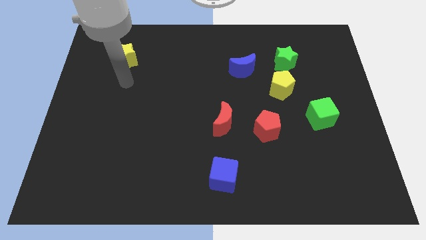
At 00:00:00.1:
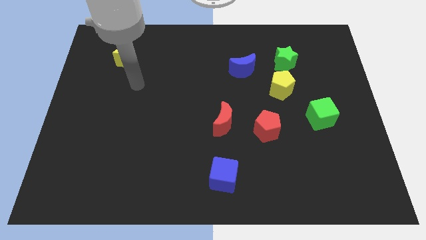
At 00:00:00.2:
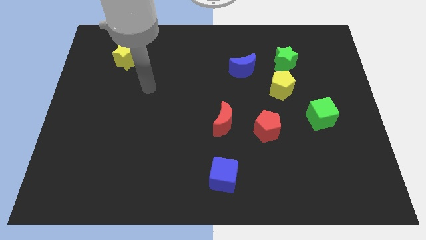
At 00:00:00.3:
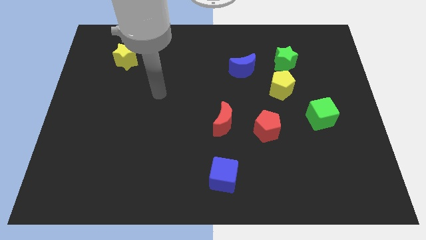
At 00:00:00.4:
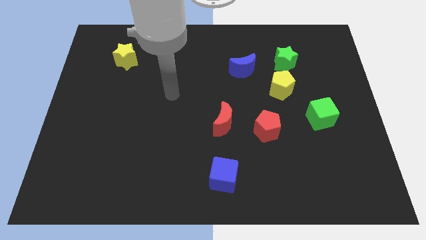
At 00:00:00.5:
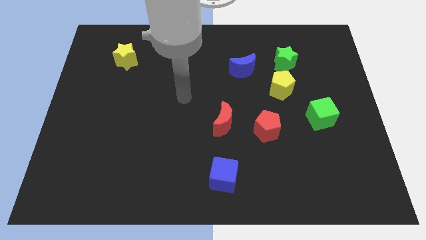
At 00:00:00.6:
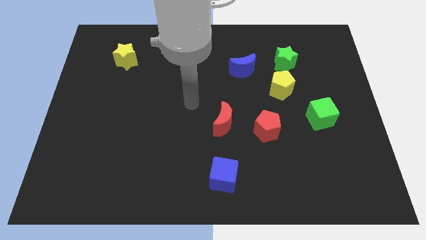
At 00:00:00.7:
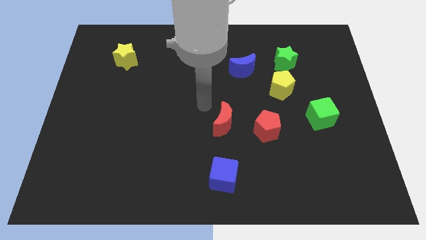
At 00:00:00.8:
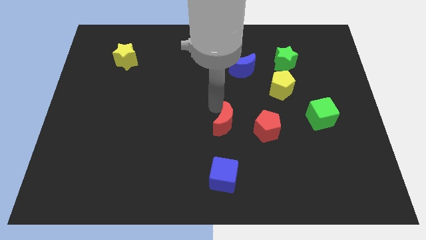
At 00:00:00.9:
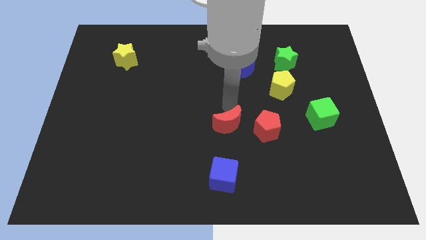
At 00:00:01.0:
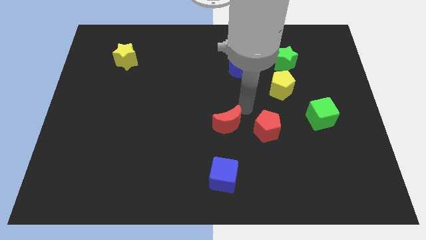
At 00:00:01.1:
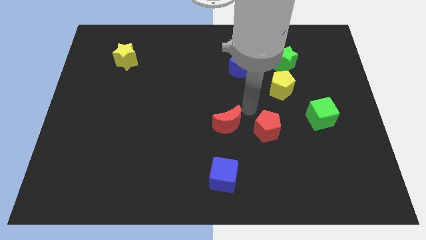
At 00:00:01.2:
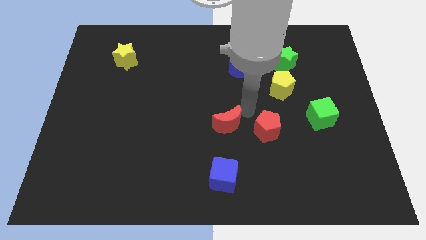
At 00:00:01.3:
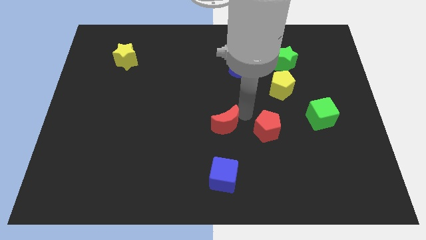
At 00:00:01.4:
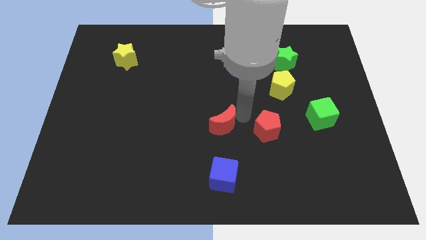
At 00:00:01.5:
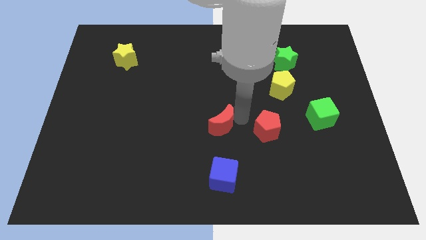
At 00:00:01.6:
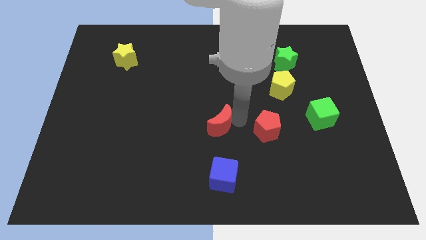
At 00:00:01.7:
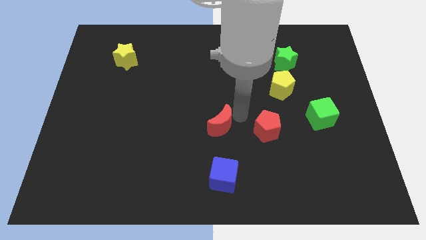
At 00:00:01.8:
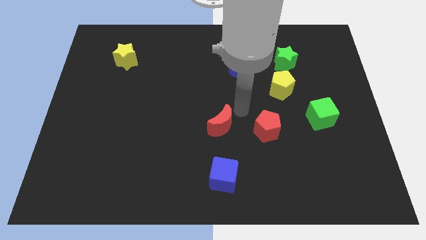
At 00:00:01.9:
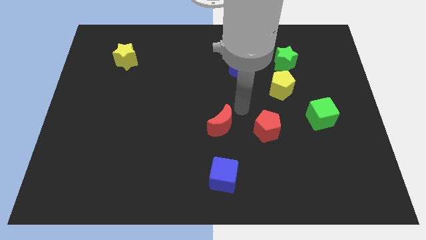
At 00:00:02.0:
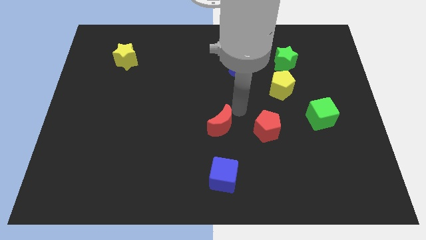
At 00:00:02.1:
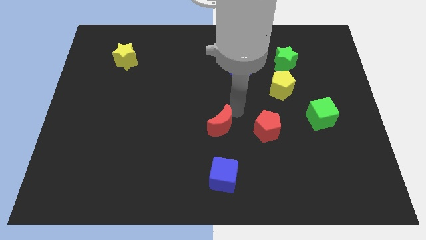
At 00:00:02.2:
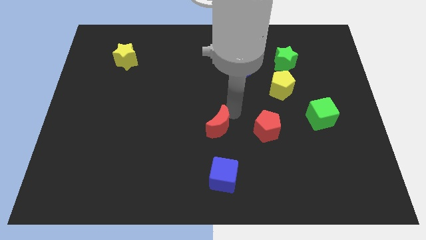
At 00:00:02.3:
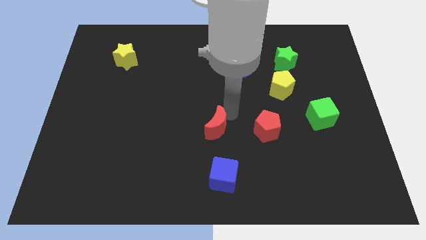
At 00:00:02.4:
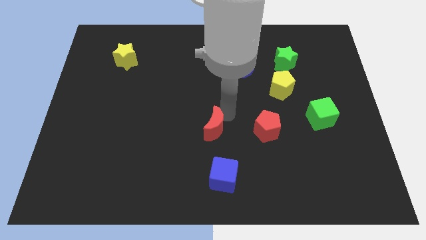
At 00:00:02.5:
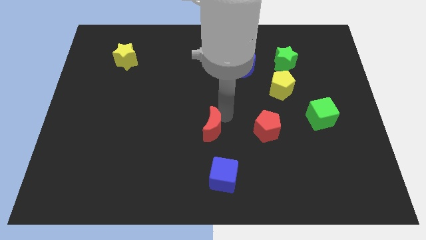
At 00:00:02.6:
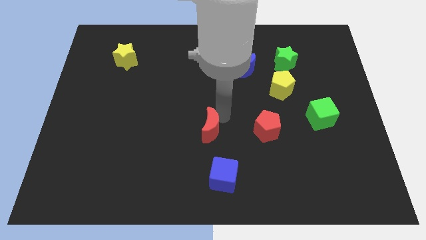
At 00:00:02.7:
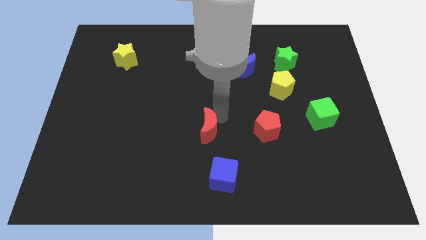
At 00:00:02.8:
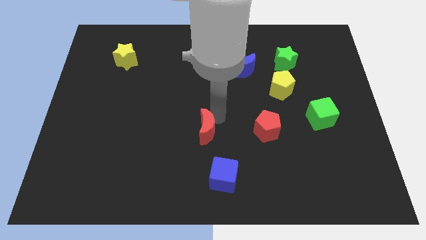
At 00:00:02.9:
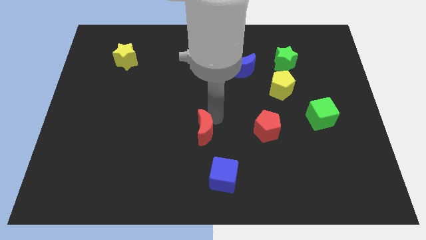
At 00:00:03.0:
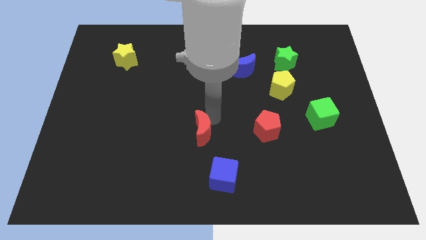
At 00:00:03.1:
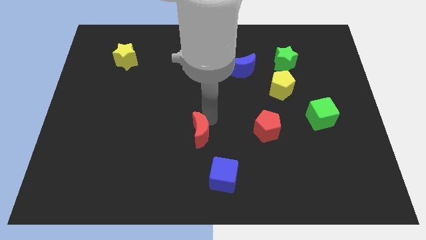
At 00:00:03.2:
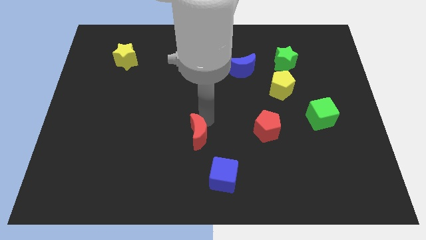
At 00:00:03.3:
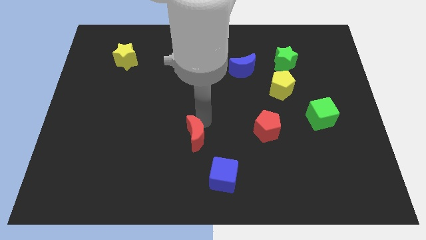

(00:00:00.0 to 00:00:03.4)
slightly push the red moon down and to the left

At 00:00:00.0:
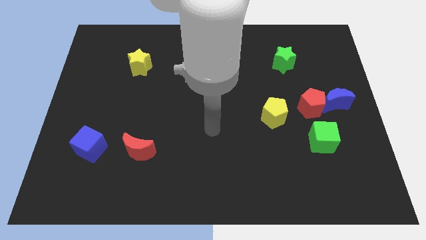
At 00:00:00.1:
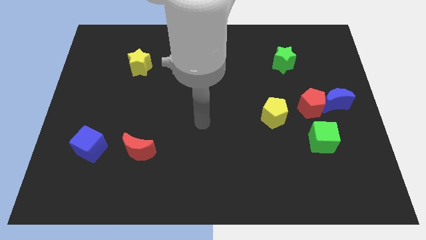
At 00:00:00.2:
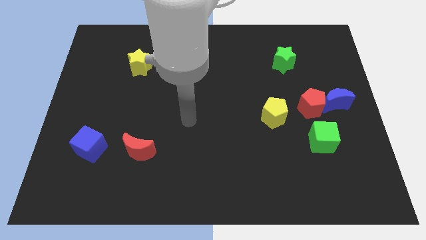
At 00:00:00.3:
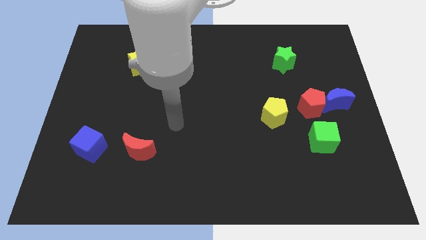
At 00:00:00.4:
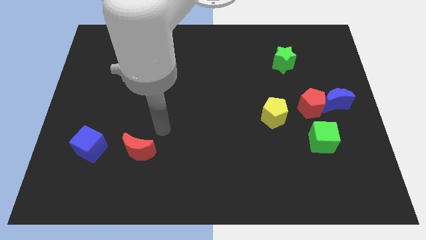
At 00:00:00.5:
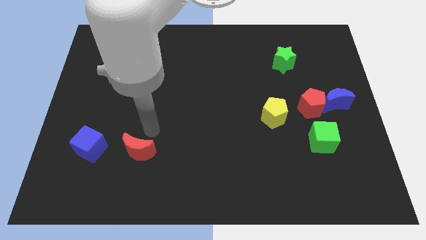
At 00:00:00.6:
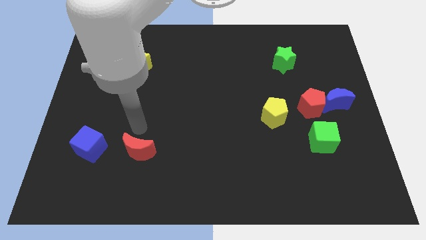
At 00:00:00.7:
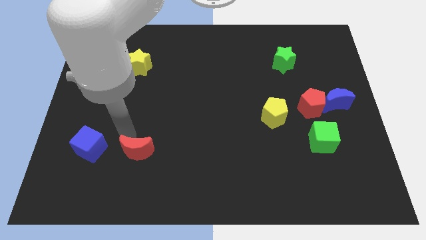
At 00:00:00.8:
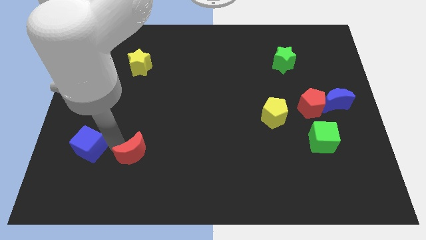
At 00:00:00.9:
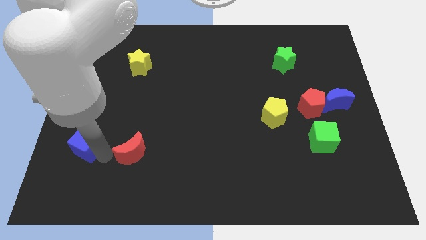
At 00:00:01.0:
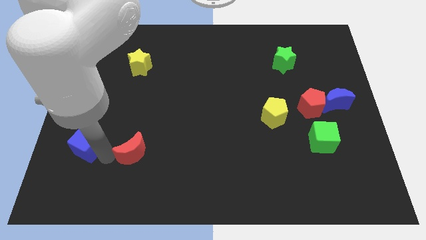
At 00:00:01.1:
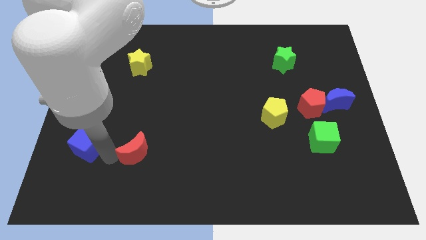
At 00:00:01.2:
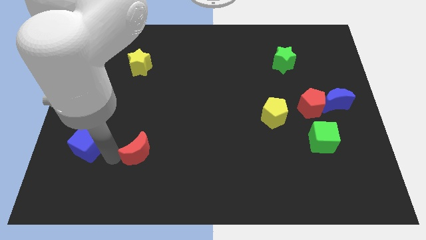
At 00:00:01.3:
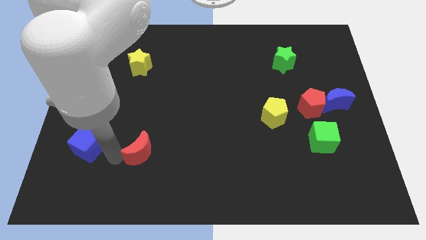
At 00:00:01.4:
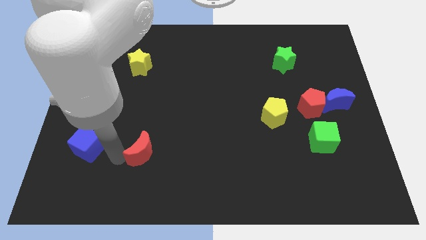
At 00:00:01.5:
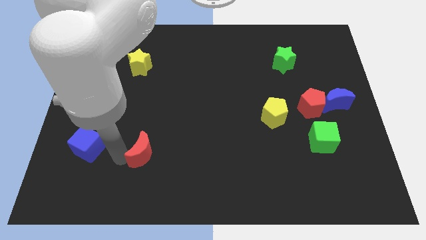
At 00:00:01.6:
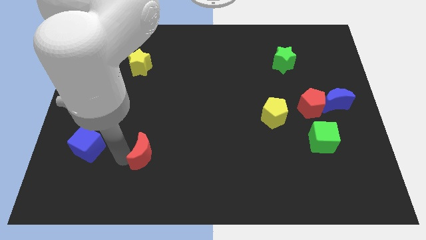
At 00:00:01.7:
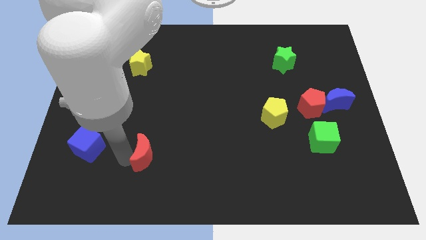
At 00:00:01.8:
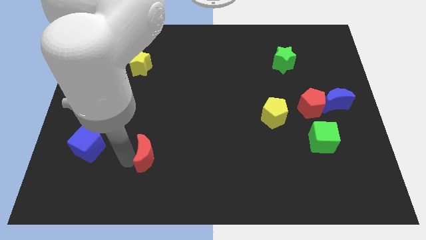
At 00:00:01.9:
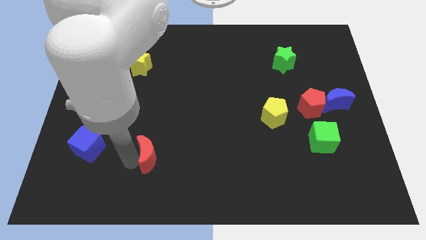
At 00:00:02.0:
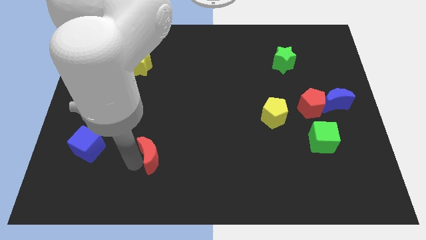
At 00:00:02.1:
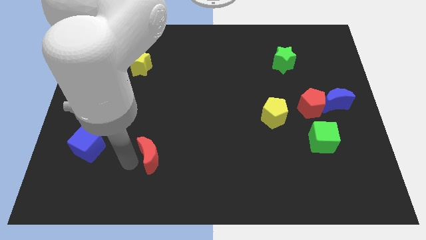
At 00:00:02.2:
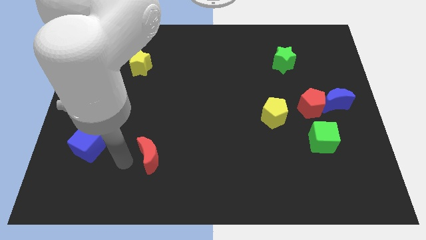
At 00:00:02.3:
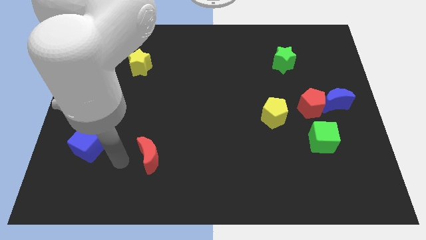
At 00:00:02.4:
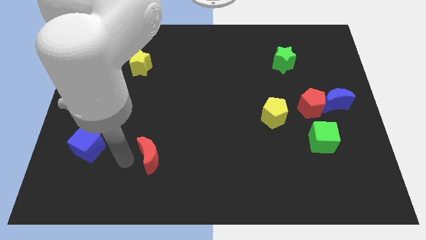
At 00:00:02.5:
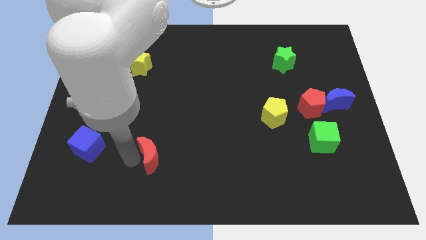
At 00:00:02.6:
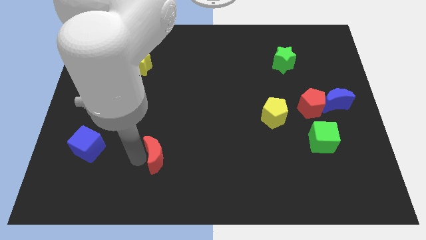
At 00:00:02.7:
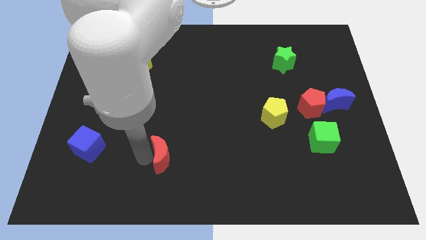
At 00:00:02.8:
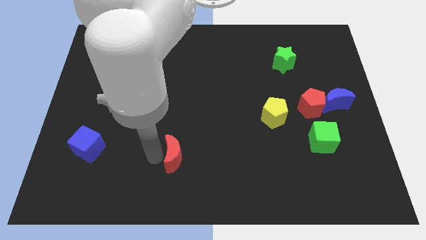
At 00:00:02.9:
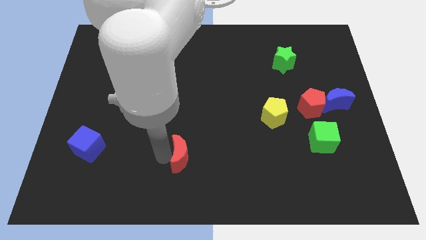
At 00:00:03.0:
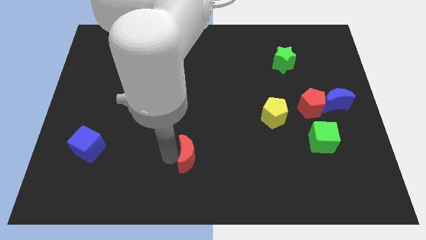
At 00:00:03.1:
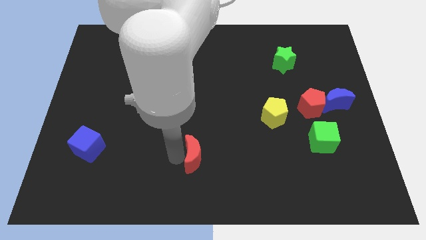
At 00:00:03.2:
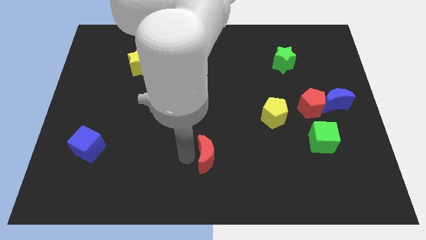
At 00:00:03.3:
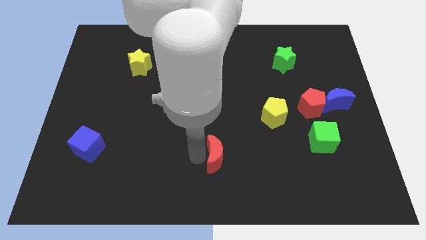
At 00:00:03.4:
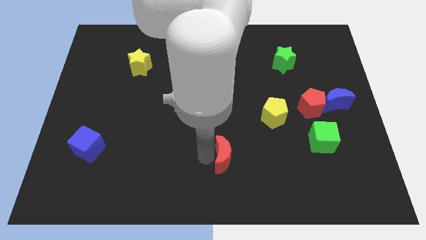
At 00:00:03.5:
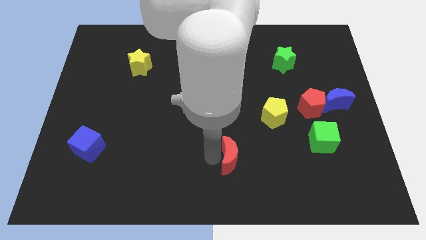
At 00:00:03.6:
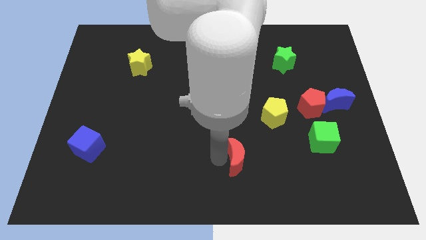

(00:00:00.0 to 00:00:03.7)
move the red moon right

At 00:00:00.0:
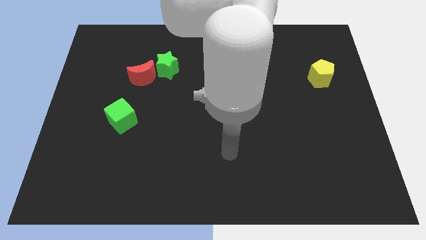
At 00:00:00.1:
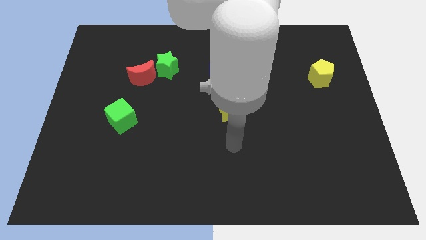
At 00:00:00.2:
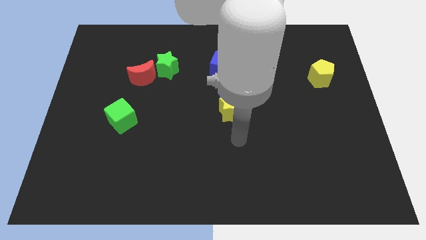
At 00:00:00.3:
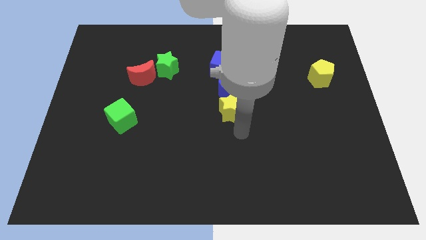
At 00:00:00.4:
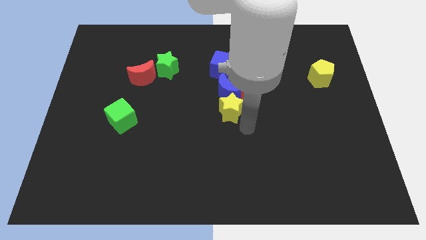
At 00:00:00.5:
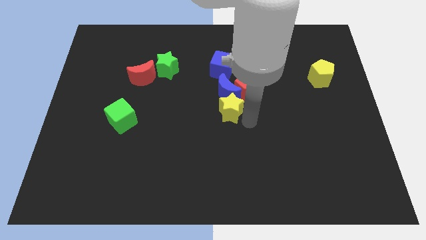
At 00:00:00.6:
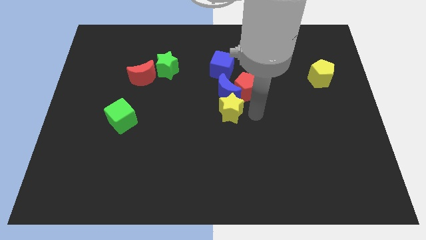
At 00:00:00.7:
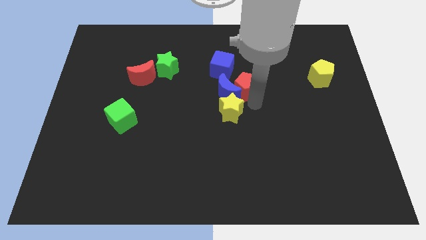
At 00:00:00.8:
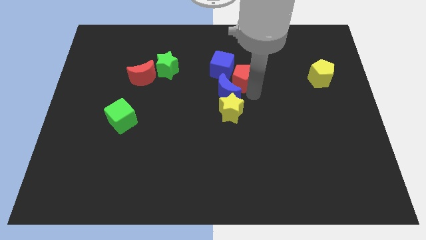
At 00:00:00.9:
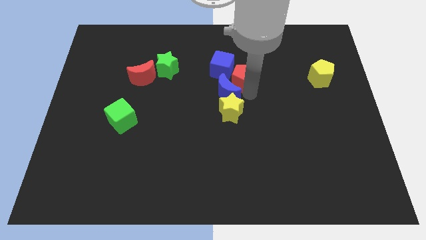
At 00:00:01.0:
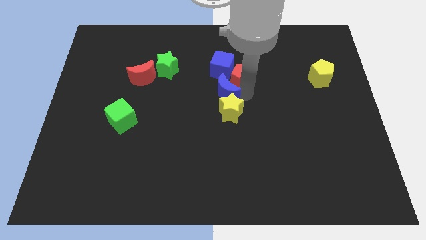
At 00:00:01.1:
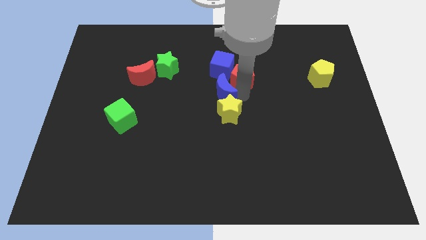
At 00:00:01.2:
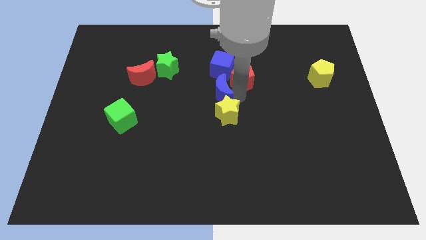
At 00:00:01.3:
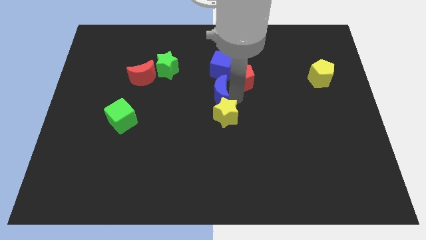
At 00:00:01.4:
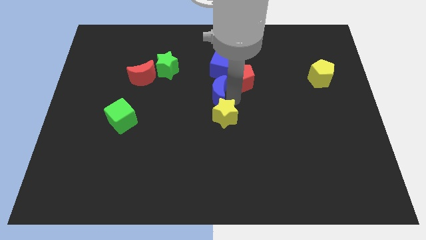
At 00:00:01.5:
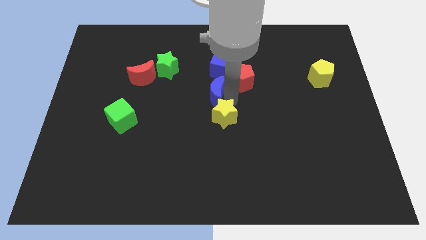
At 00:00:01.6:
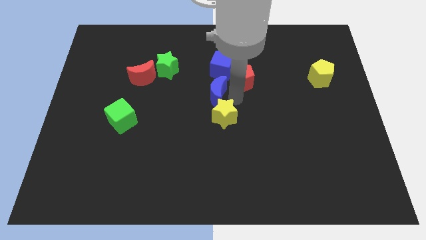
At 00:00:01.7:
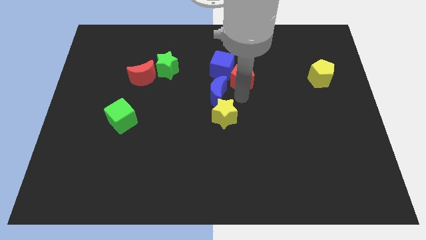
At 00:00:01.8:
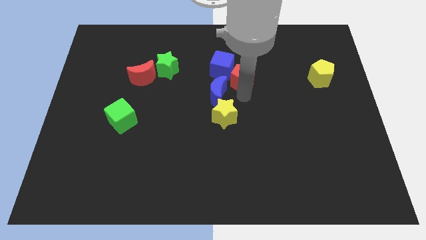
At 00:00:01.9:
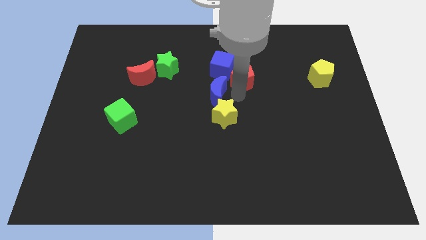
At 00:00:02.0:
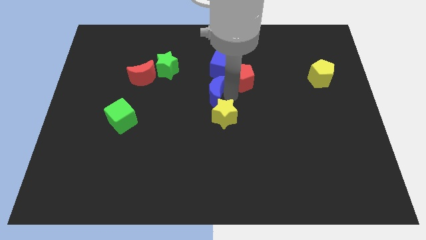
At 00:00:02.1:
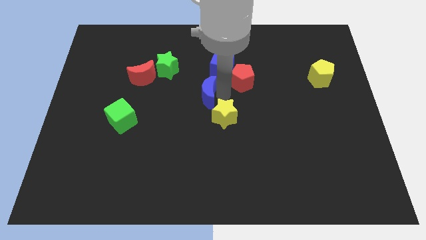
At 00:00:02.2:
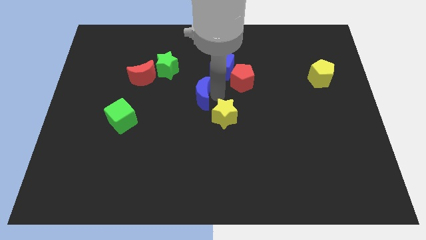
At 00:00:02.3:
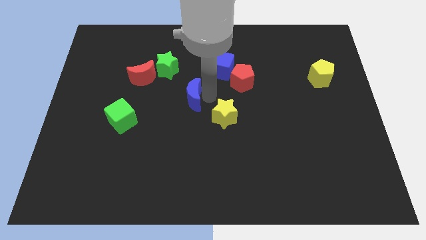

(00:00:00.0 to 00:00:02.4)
slightly push the blue moon left
